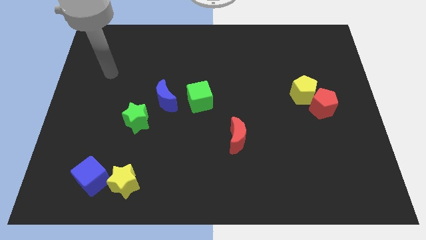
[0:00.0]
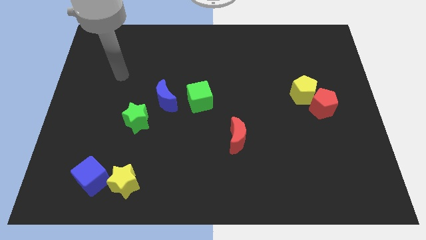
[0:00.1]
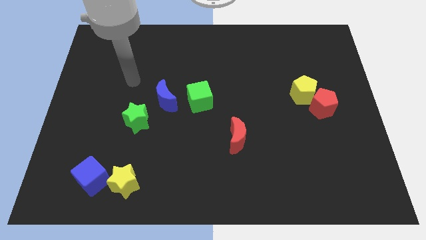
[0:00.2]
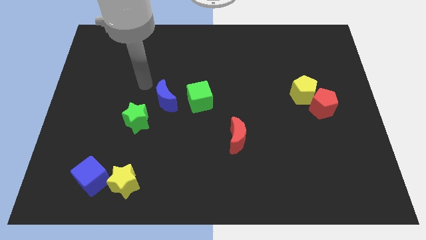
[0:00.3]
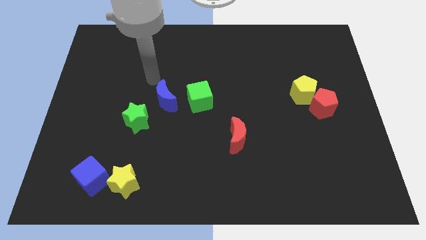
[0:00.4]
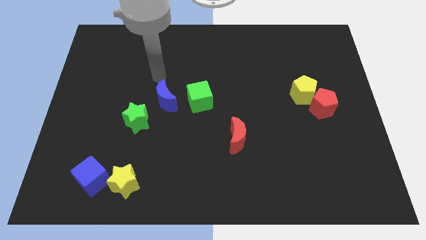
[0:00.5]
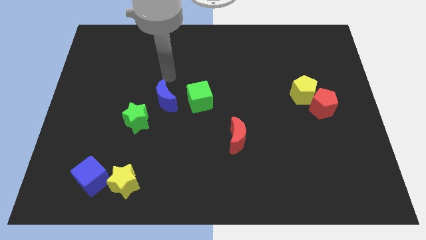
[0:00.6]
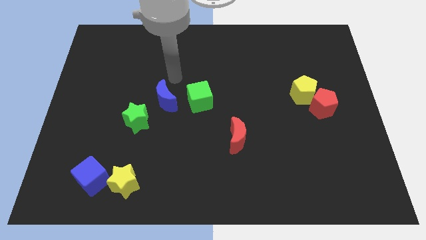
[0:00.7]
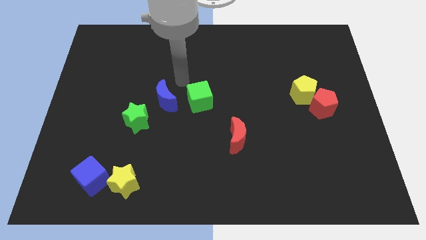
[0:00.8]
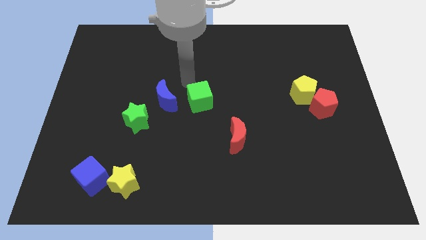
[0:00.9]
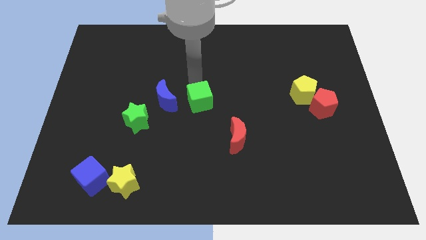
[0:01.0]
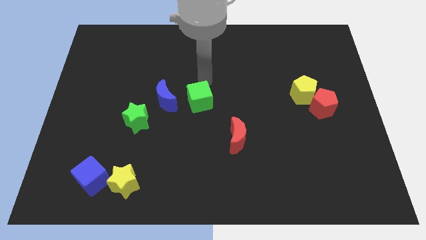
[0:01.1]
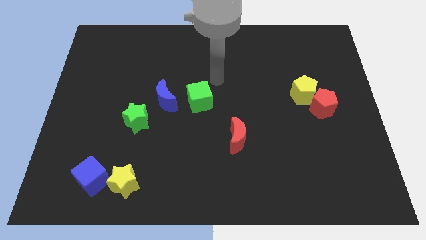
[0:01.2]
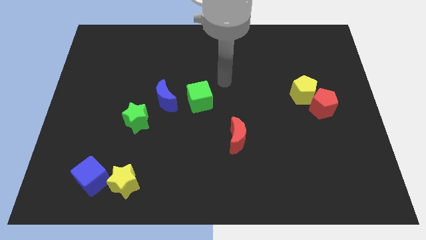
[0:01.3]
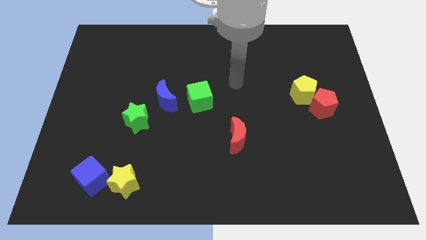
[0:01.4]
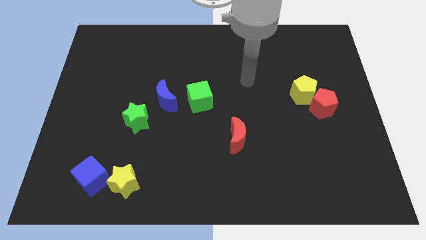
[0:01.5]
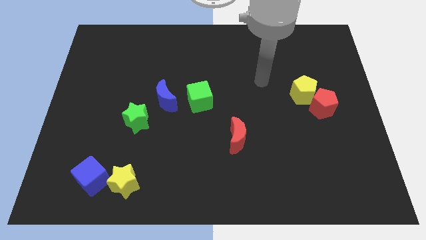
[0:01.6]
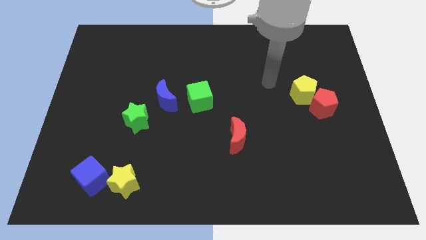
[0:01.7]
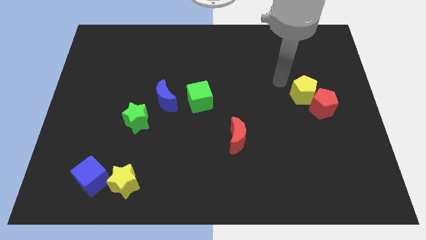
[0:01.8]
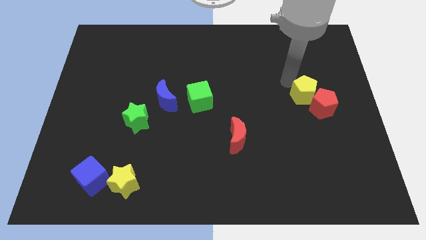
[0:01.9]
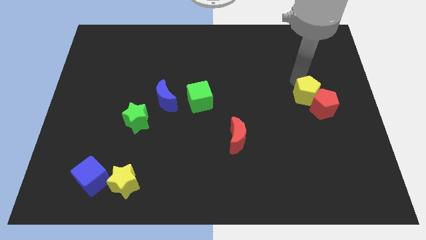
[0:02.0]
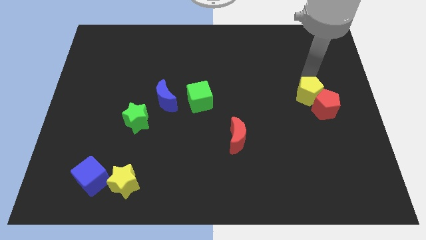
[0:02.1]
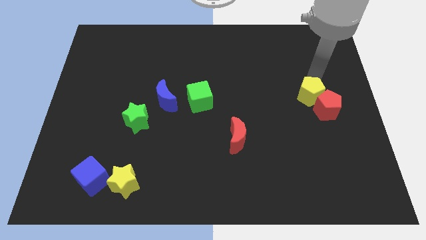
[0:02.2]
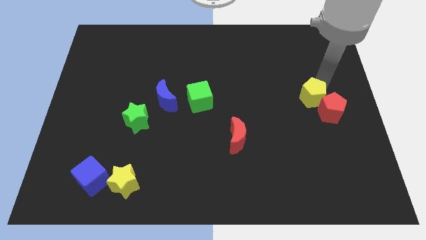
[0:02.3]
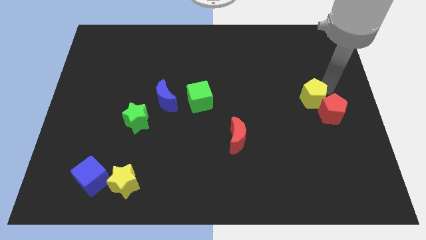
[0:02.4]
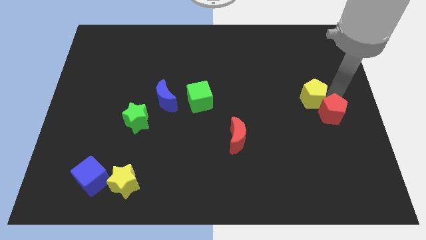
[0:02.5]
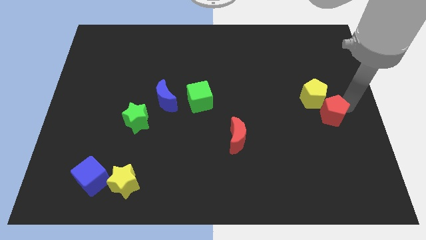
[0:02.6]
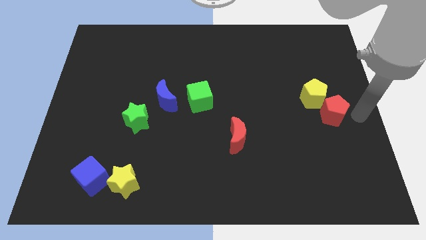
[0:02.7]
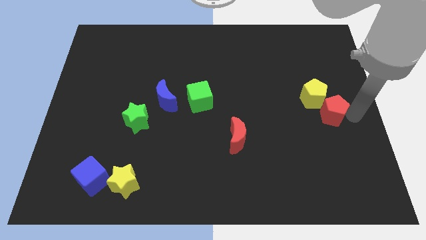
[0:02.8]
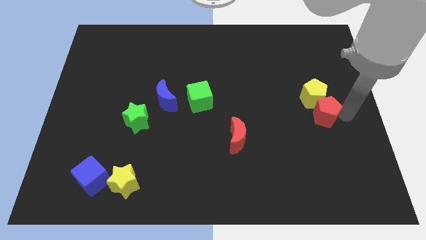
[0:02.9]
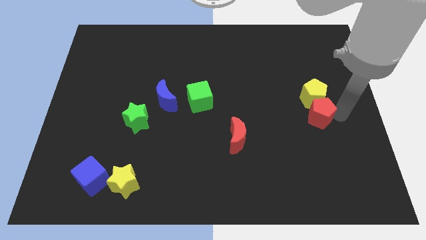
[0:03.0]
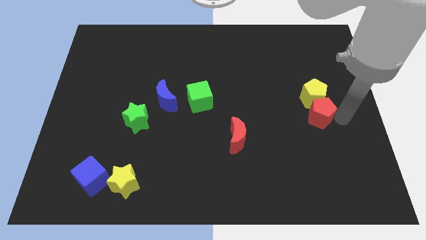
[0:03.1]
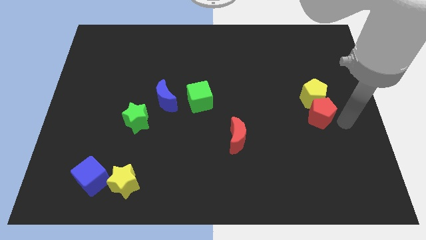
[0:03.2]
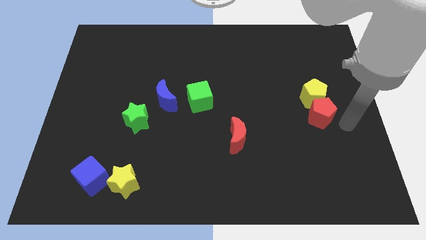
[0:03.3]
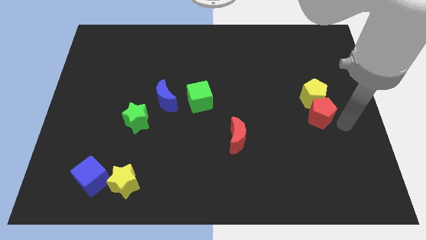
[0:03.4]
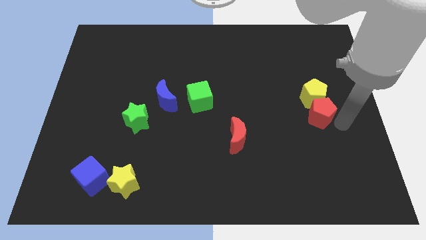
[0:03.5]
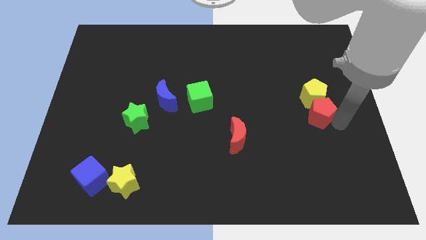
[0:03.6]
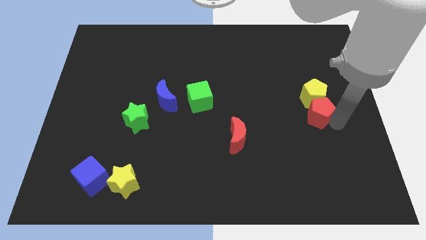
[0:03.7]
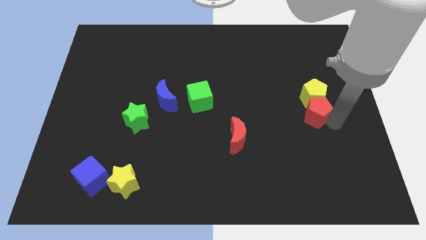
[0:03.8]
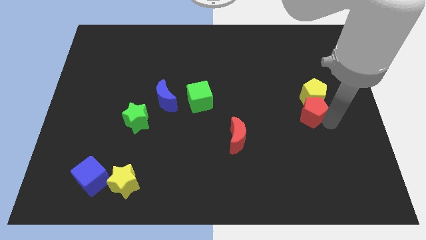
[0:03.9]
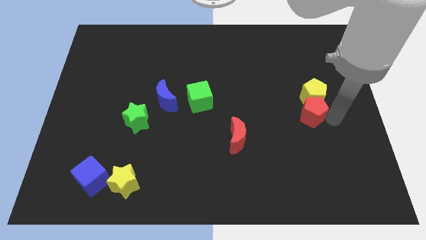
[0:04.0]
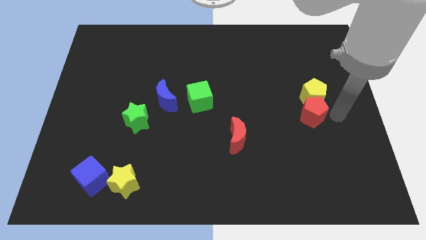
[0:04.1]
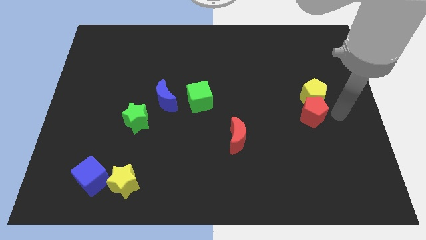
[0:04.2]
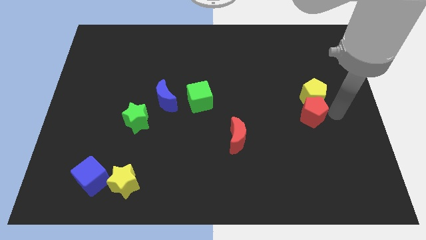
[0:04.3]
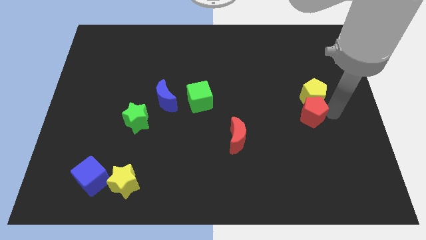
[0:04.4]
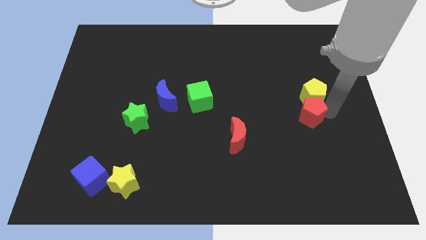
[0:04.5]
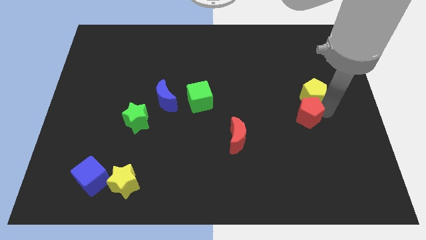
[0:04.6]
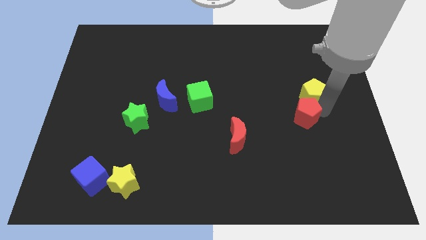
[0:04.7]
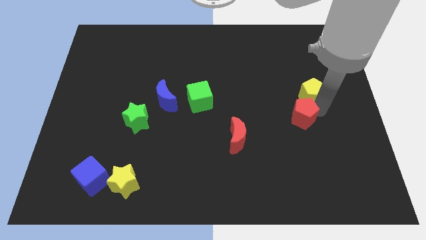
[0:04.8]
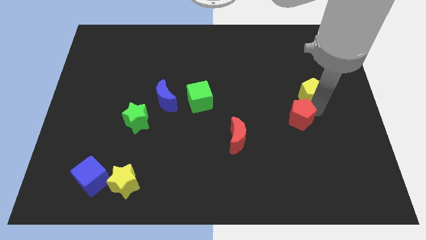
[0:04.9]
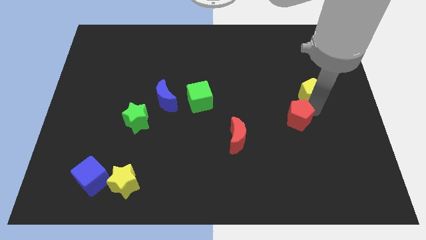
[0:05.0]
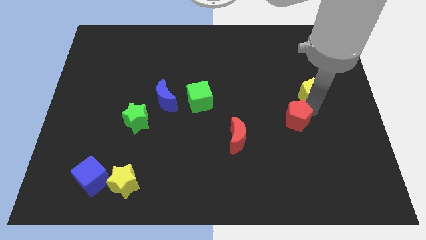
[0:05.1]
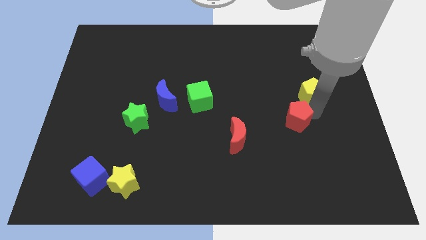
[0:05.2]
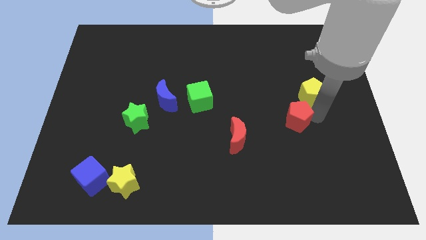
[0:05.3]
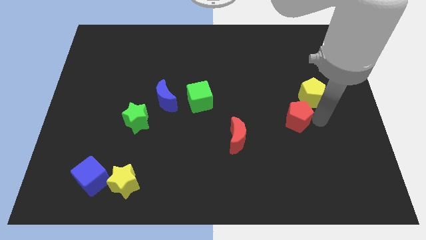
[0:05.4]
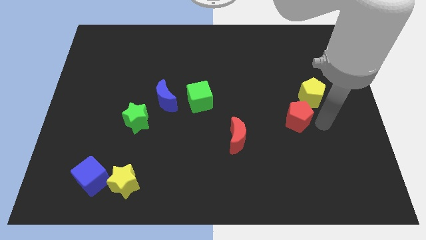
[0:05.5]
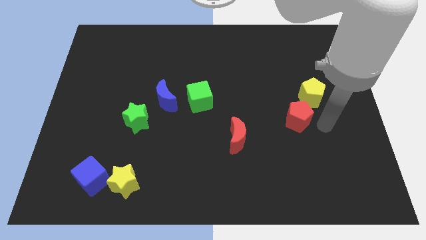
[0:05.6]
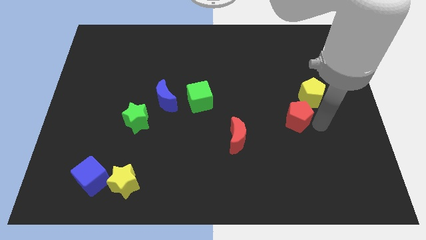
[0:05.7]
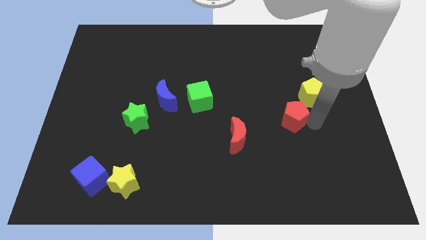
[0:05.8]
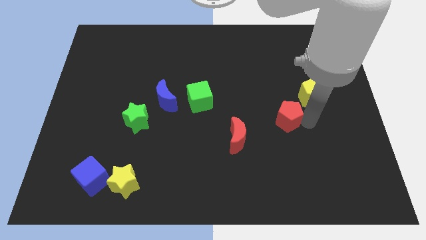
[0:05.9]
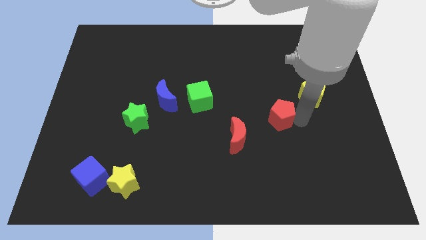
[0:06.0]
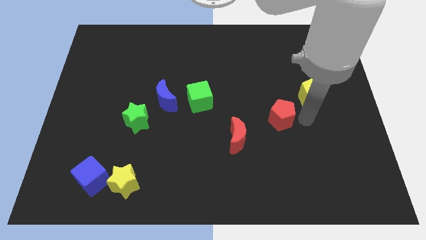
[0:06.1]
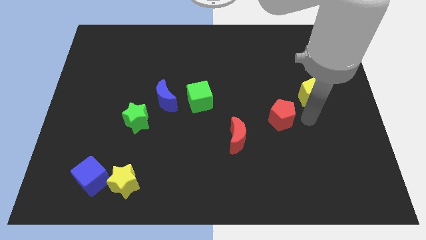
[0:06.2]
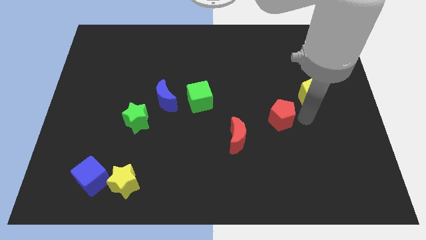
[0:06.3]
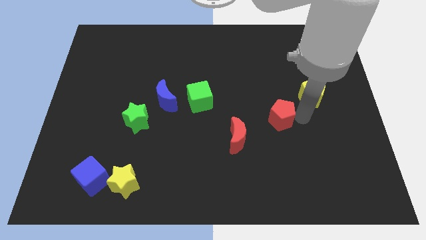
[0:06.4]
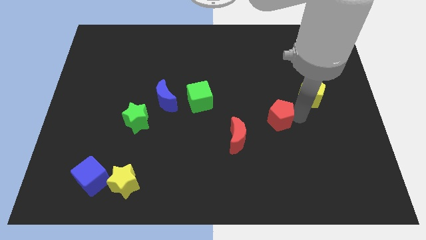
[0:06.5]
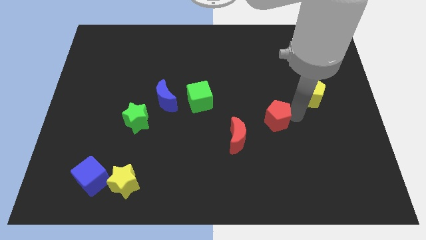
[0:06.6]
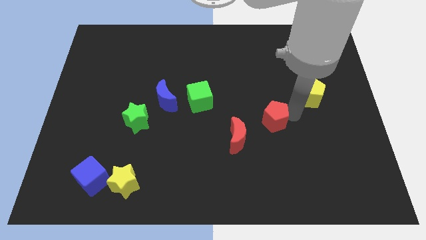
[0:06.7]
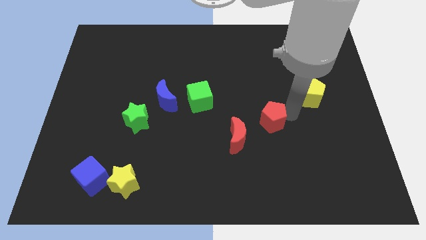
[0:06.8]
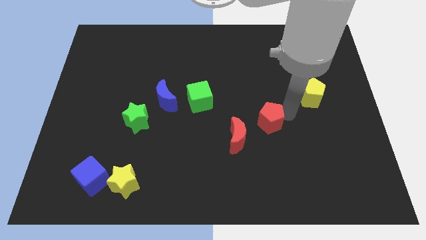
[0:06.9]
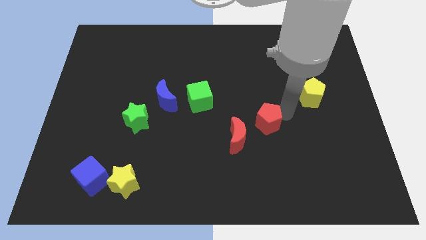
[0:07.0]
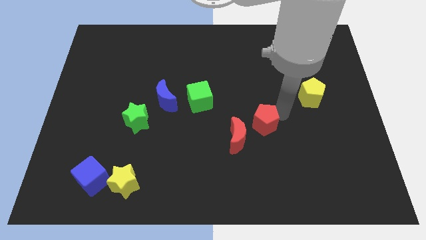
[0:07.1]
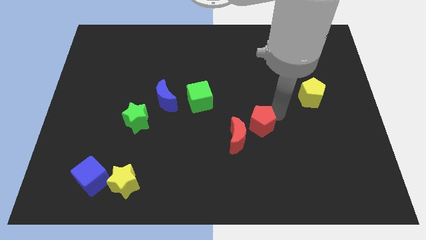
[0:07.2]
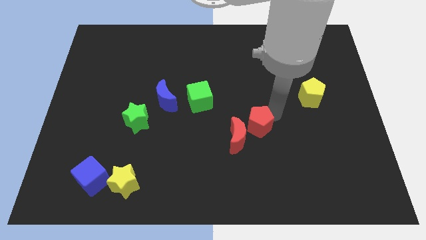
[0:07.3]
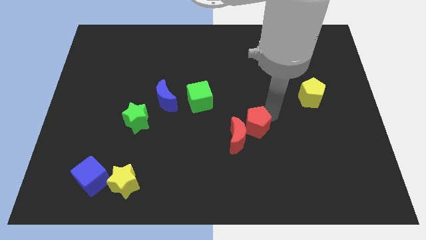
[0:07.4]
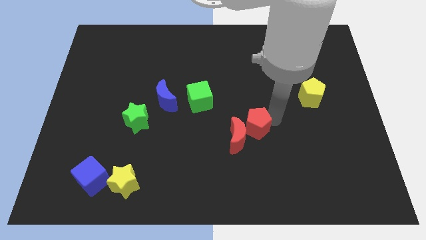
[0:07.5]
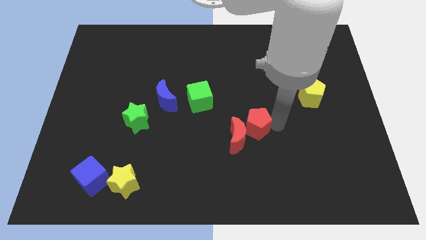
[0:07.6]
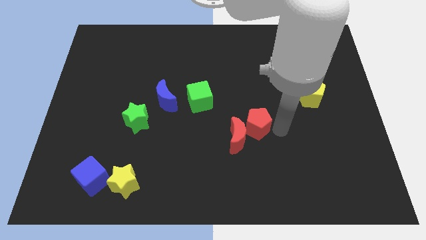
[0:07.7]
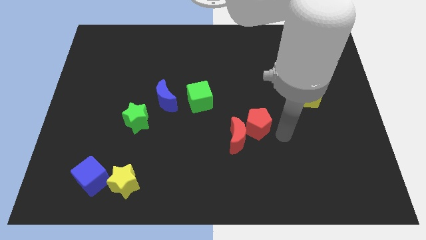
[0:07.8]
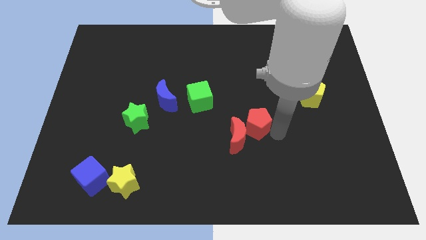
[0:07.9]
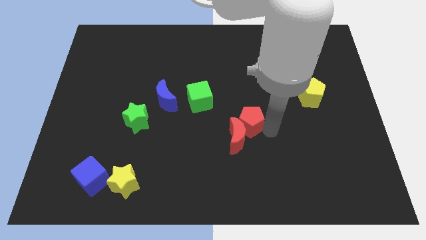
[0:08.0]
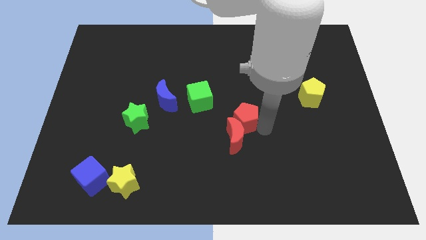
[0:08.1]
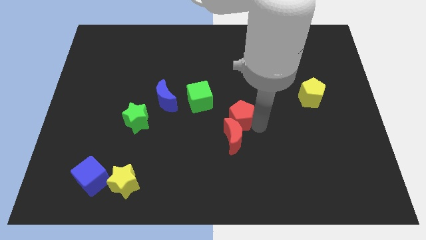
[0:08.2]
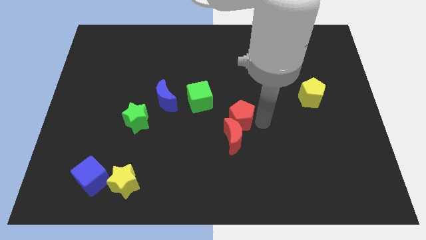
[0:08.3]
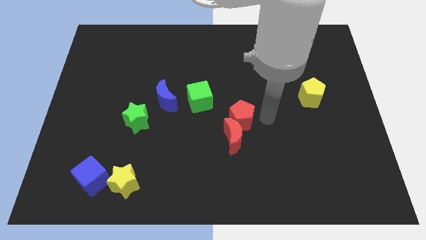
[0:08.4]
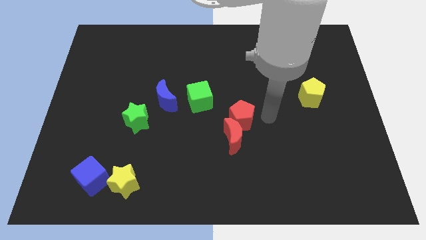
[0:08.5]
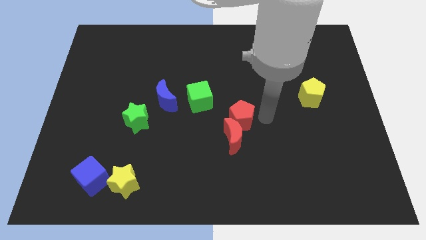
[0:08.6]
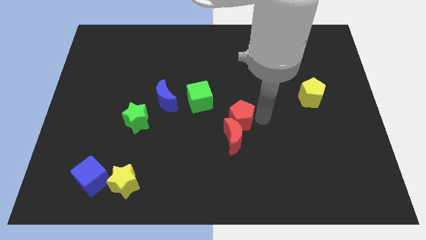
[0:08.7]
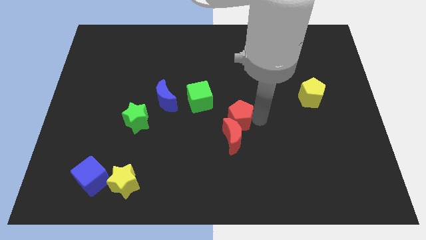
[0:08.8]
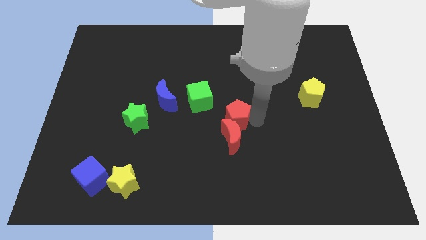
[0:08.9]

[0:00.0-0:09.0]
slide the red pentagon left
